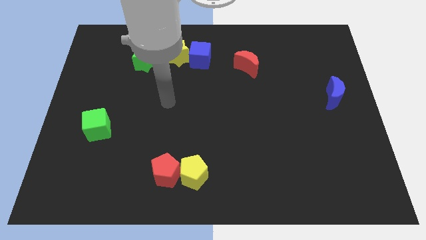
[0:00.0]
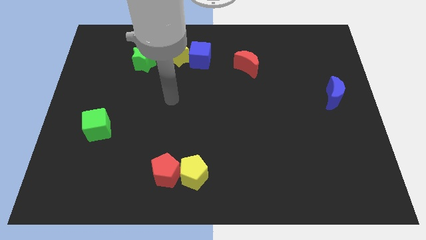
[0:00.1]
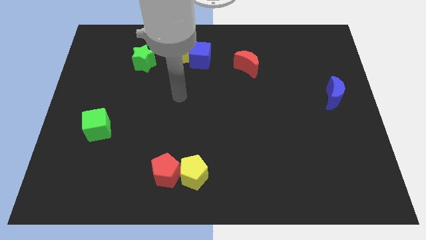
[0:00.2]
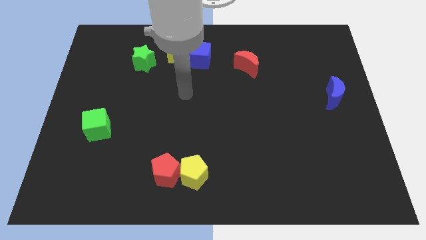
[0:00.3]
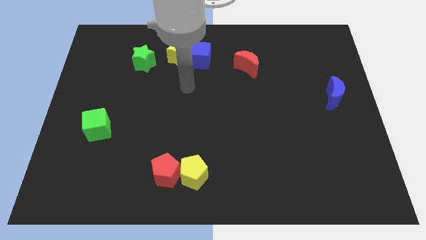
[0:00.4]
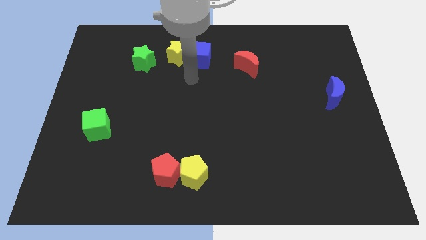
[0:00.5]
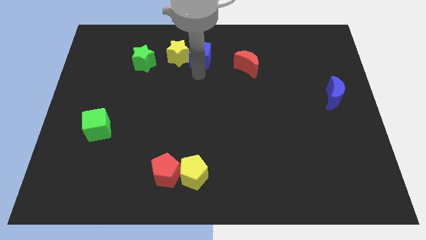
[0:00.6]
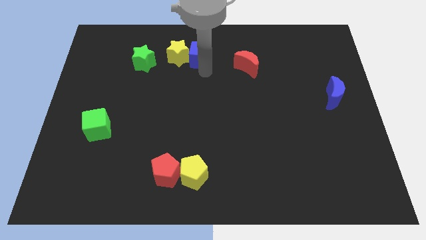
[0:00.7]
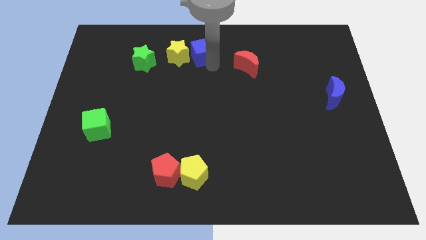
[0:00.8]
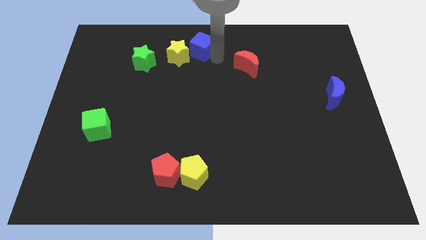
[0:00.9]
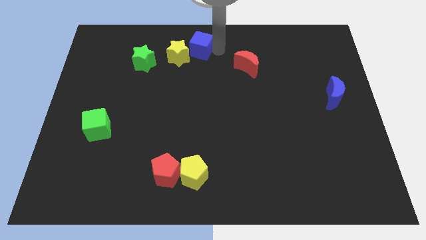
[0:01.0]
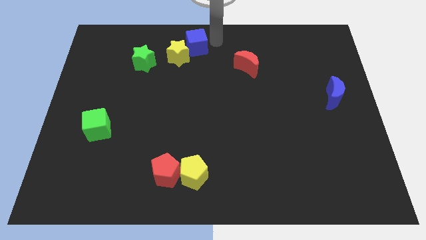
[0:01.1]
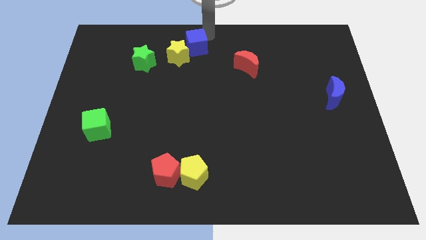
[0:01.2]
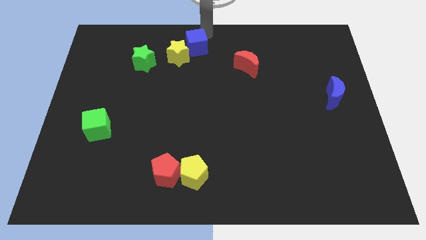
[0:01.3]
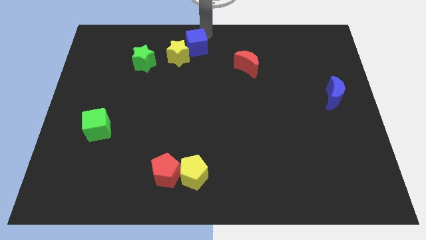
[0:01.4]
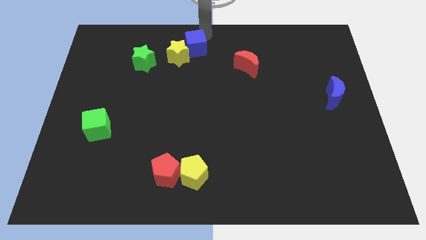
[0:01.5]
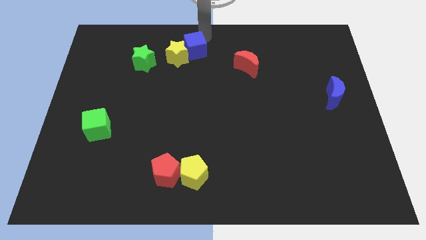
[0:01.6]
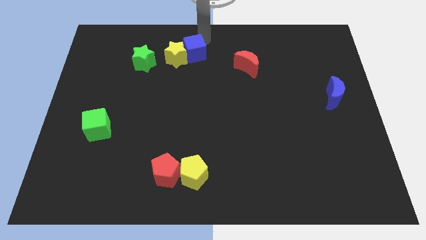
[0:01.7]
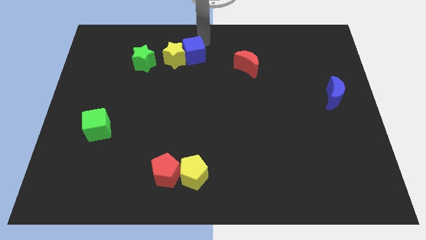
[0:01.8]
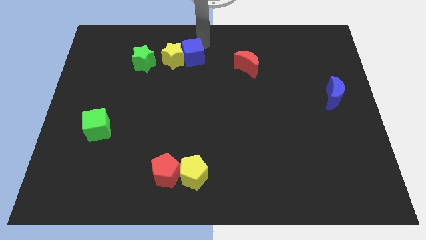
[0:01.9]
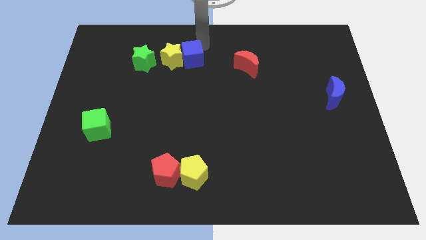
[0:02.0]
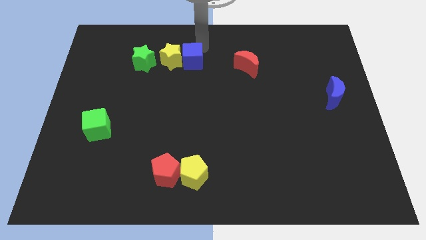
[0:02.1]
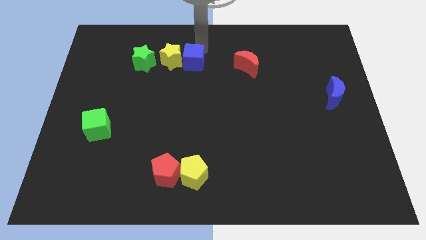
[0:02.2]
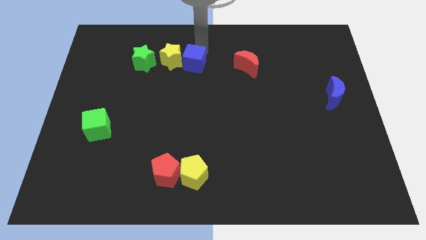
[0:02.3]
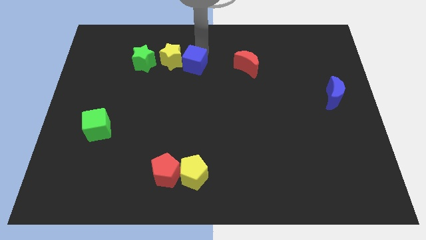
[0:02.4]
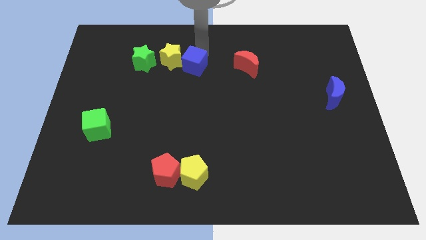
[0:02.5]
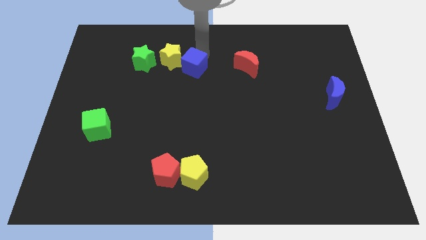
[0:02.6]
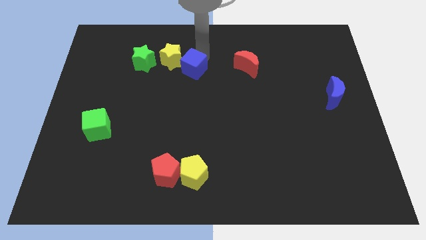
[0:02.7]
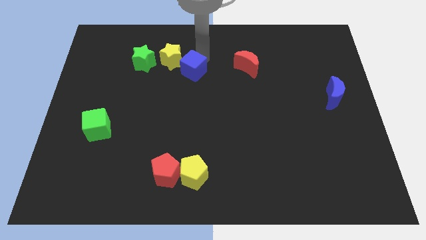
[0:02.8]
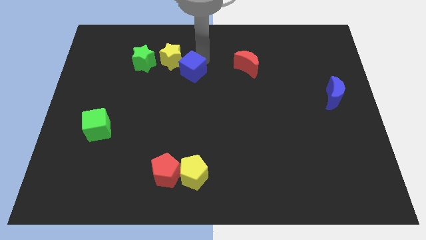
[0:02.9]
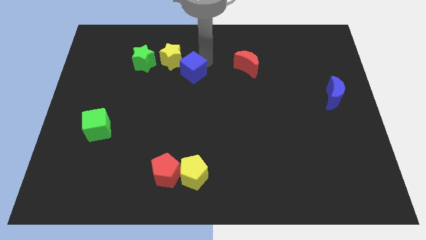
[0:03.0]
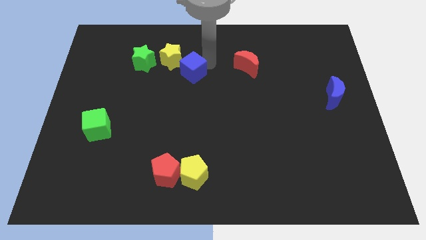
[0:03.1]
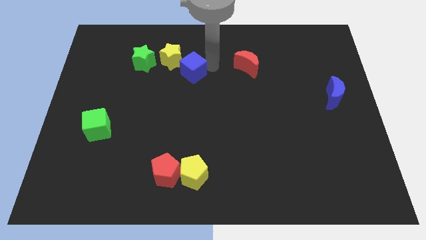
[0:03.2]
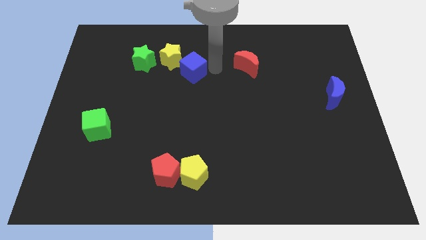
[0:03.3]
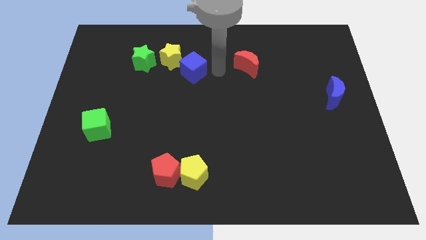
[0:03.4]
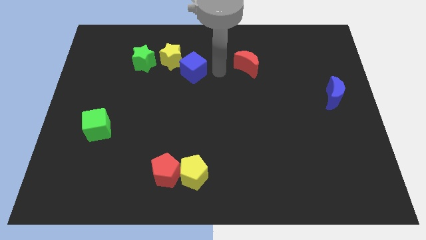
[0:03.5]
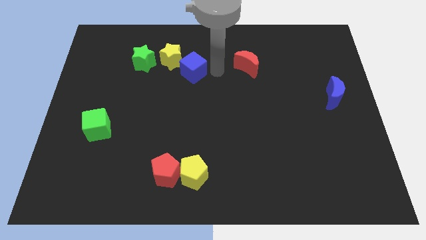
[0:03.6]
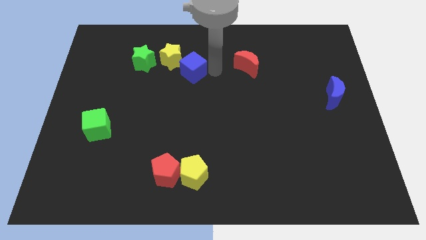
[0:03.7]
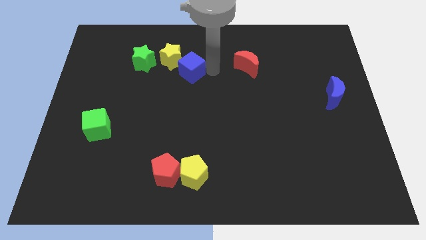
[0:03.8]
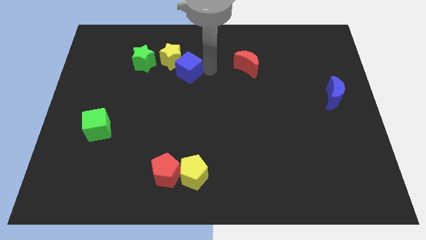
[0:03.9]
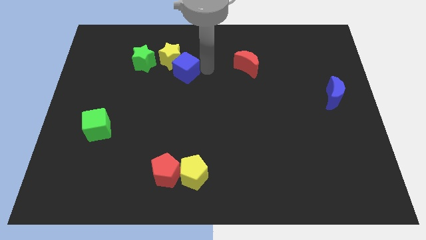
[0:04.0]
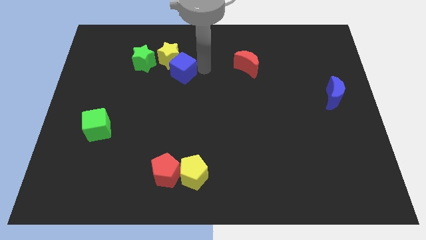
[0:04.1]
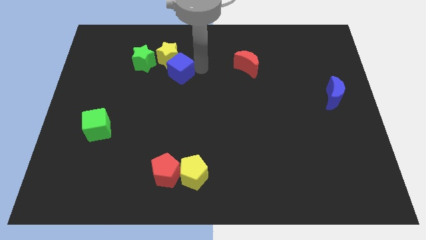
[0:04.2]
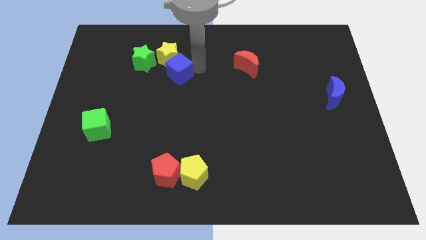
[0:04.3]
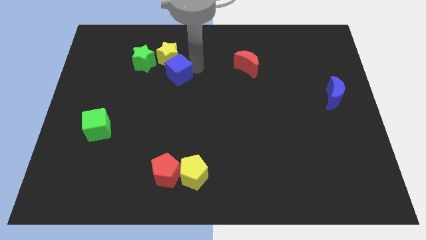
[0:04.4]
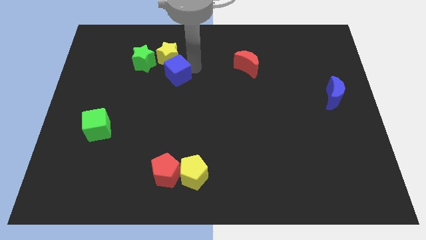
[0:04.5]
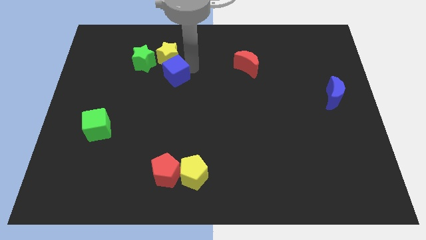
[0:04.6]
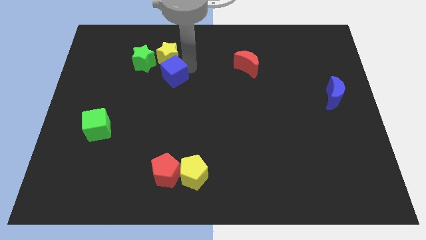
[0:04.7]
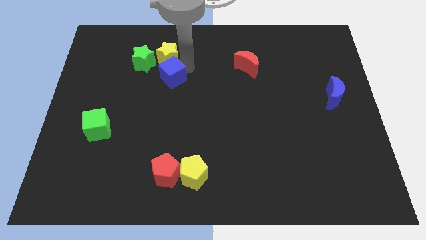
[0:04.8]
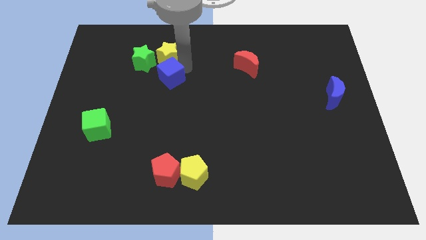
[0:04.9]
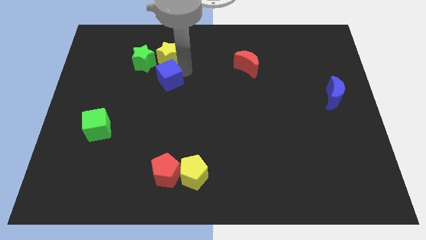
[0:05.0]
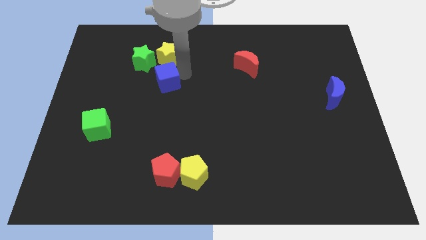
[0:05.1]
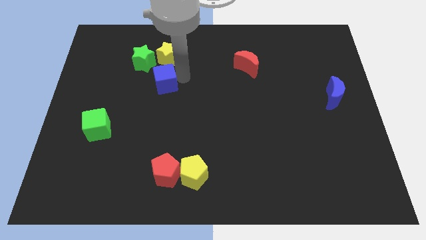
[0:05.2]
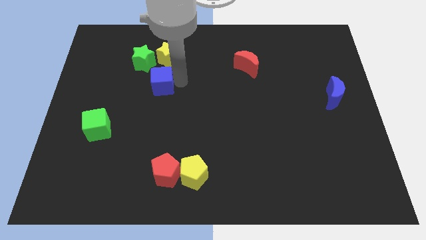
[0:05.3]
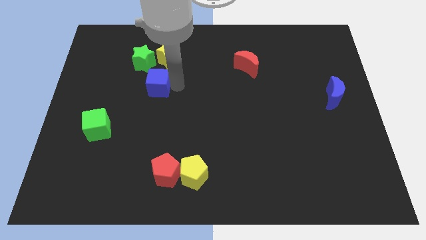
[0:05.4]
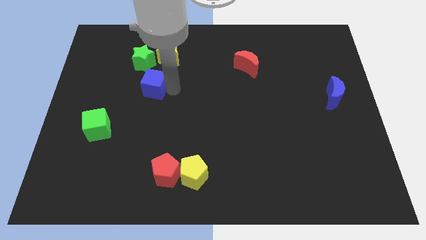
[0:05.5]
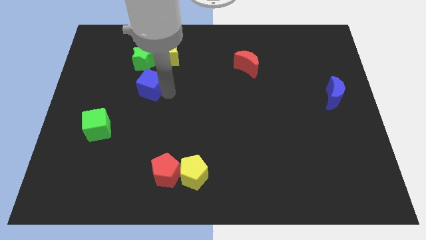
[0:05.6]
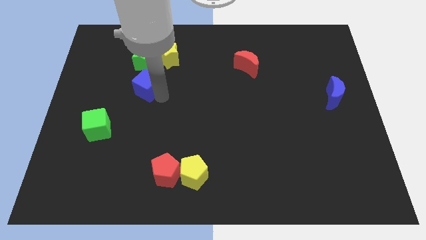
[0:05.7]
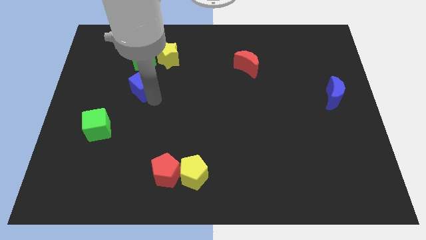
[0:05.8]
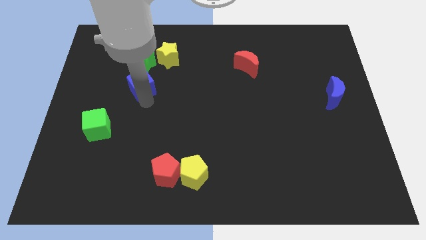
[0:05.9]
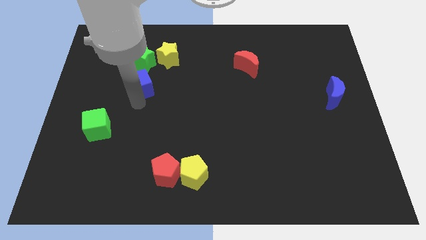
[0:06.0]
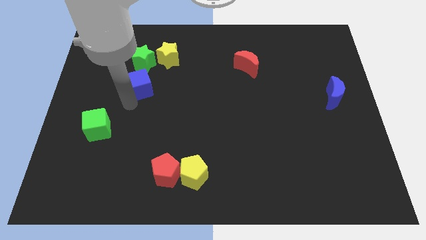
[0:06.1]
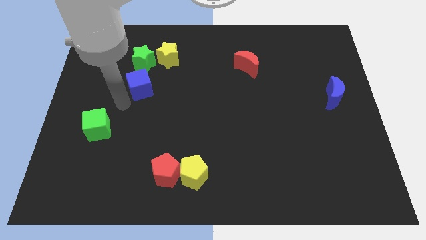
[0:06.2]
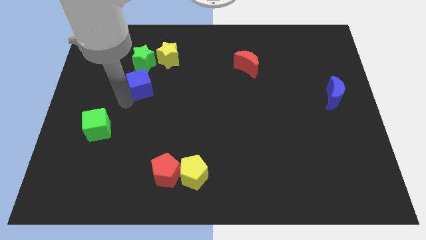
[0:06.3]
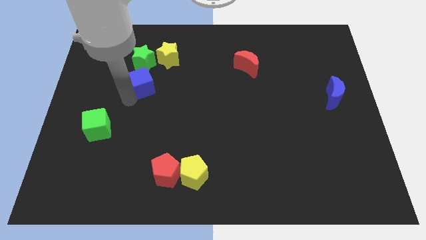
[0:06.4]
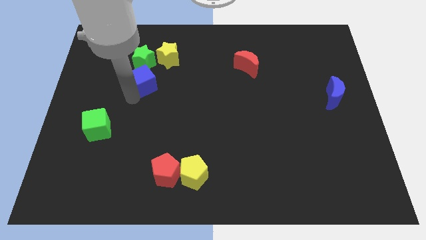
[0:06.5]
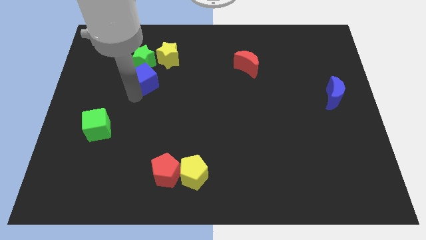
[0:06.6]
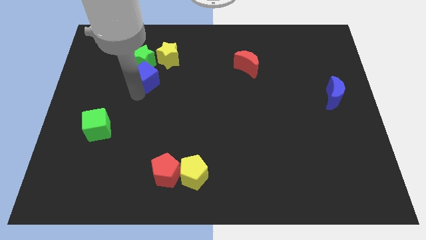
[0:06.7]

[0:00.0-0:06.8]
put the blue cube towards the green star
